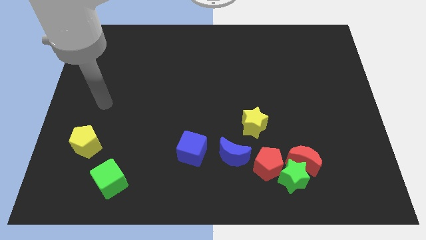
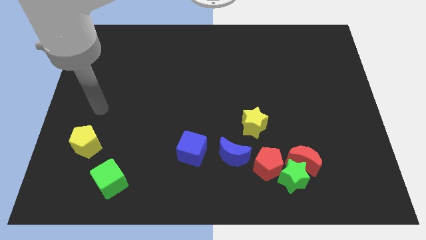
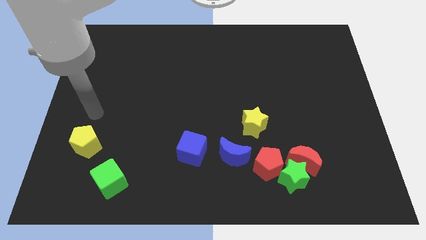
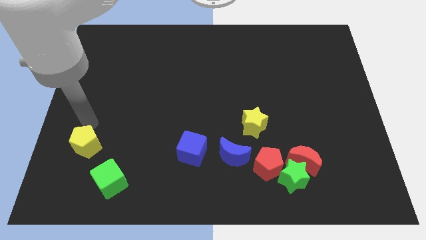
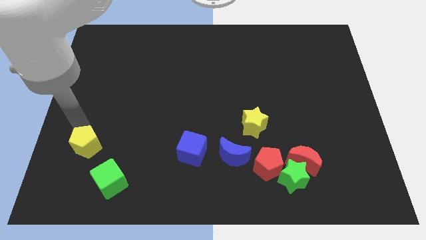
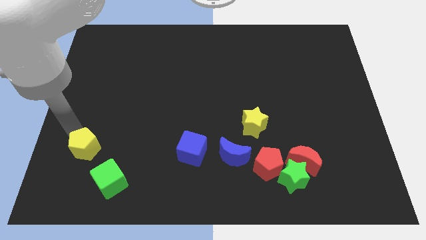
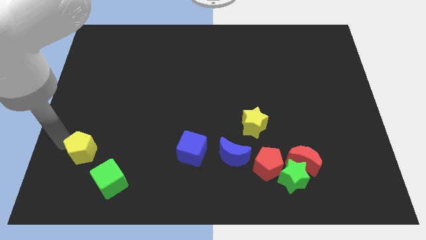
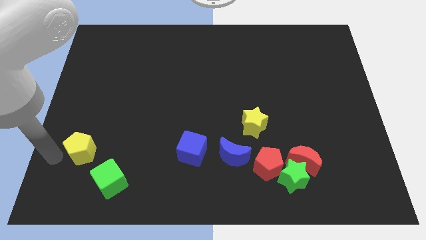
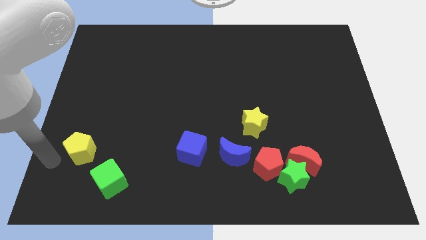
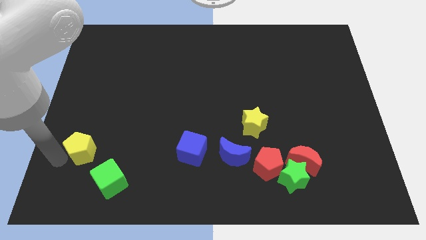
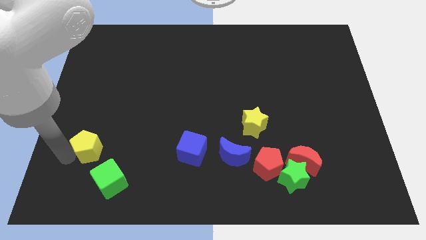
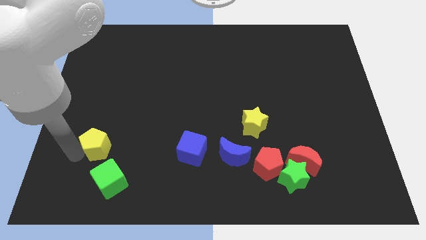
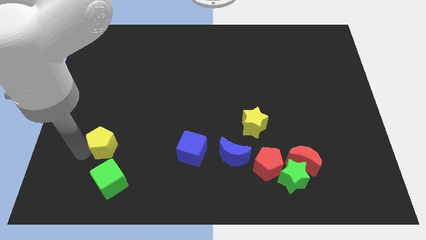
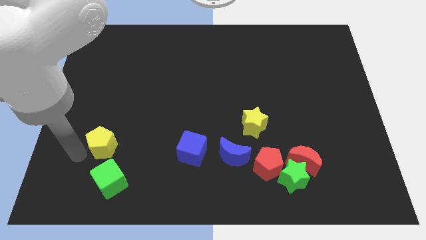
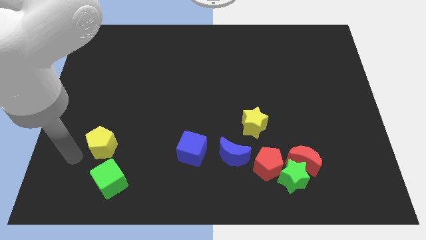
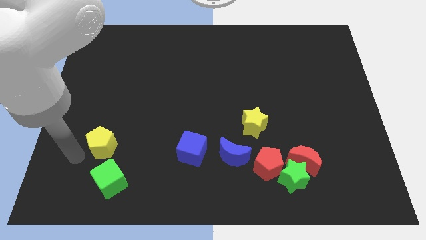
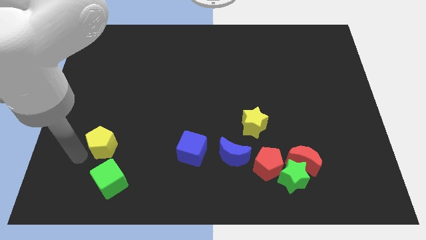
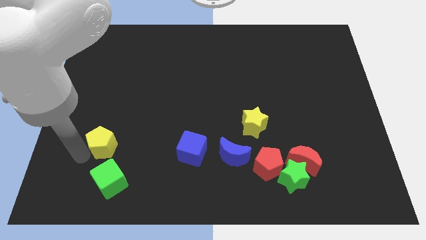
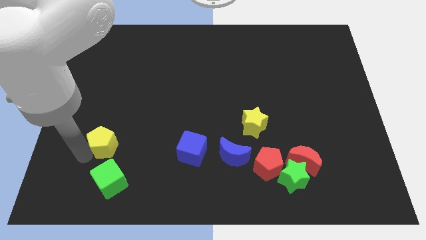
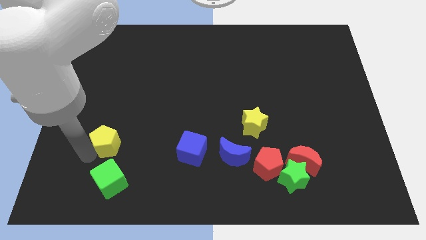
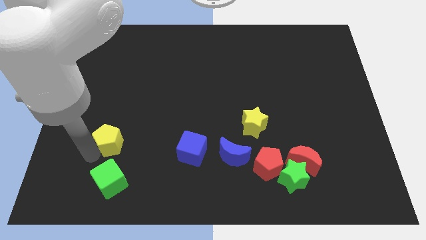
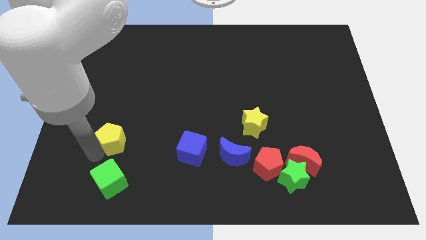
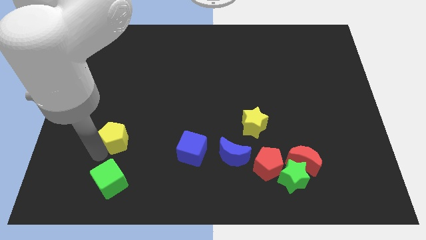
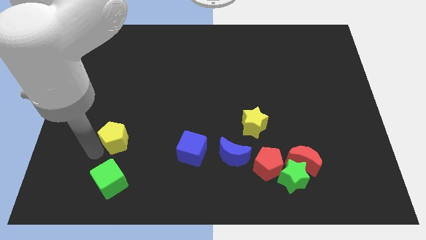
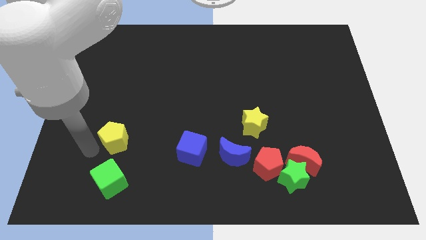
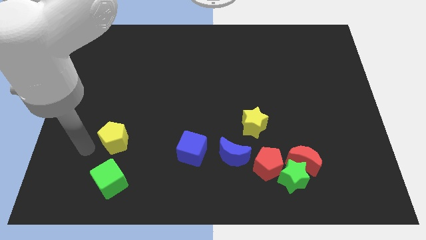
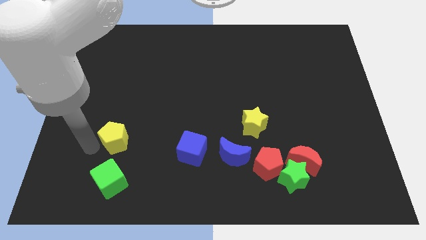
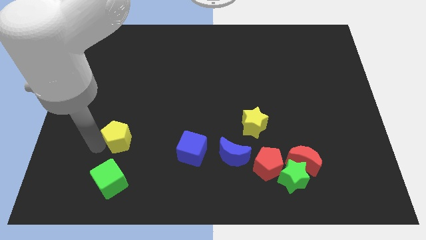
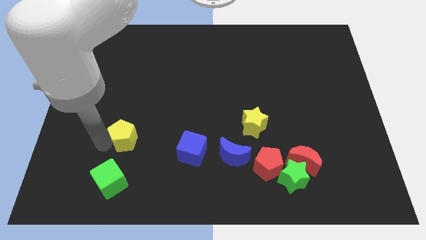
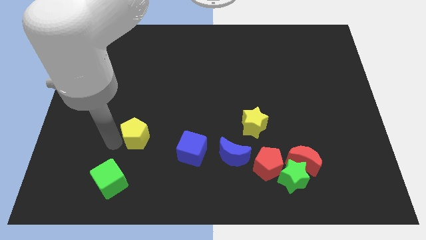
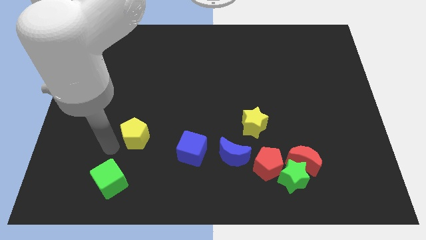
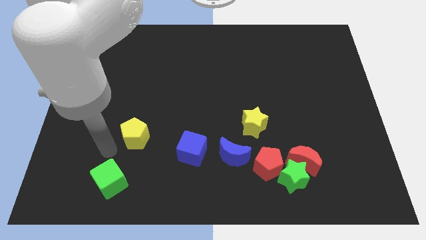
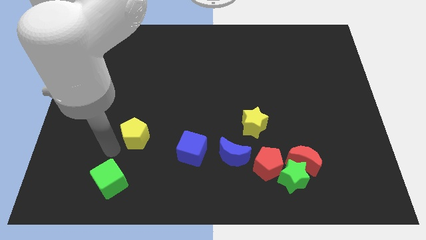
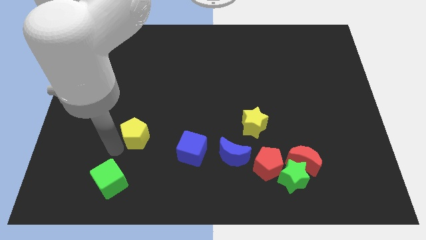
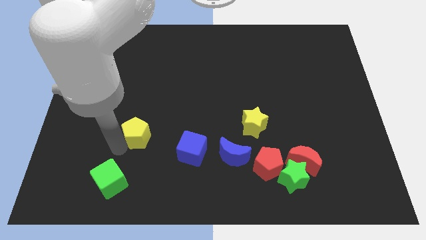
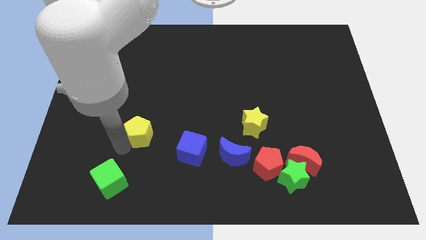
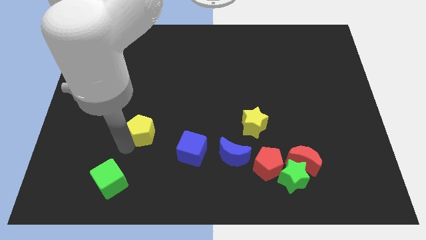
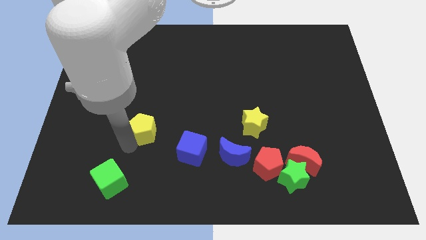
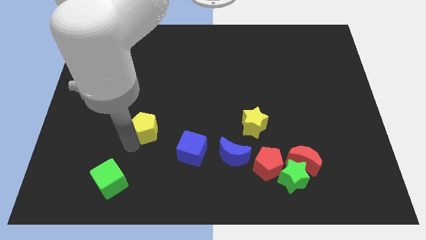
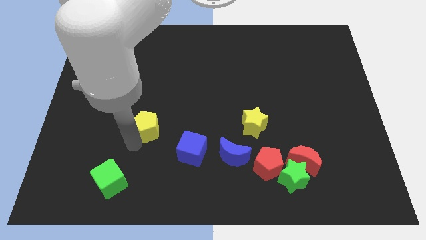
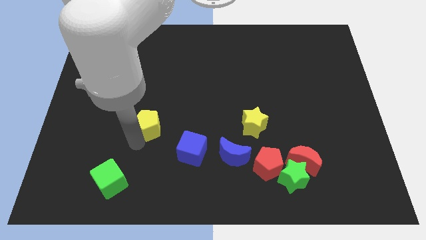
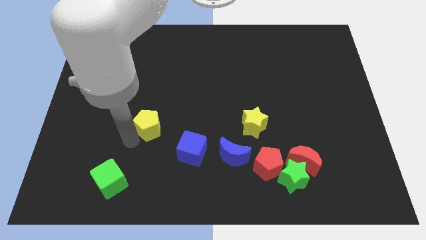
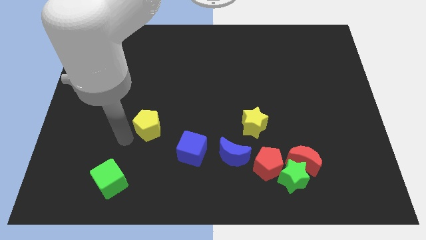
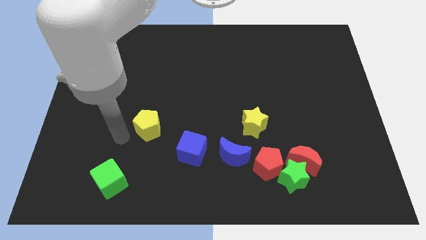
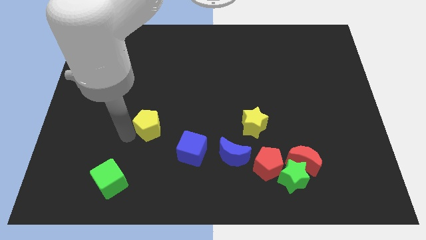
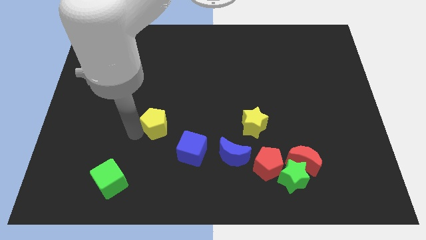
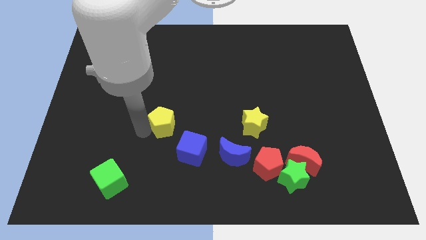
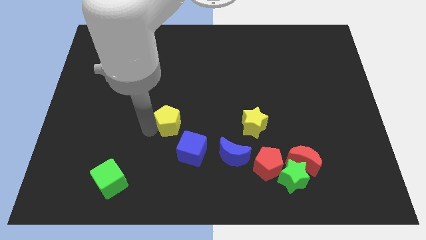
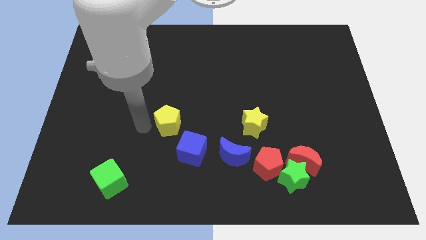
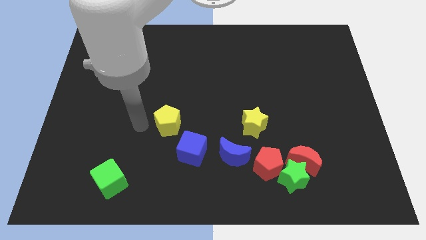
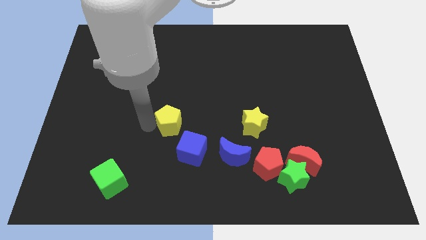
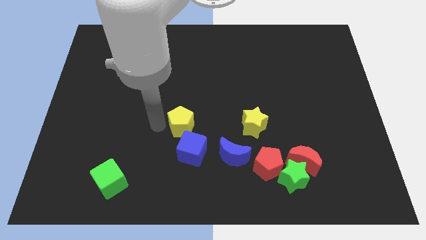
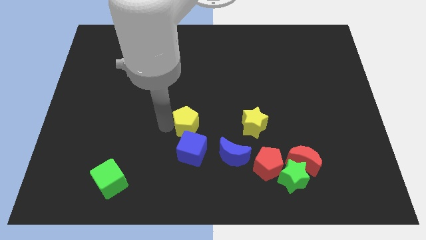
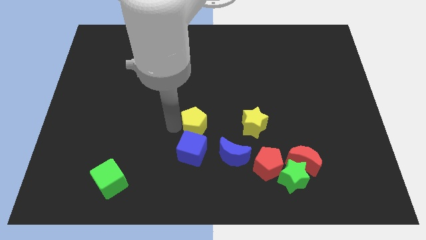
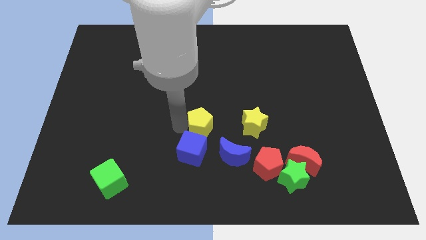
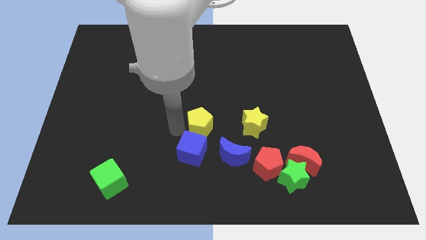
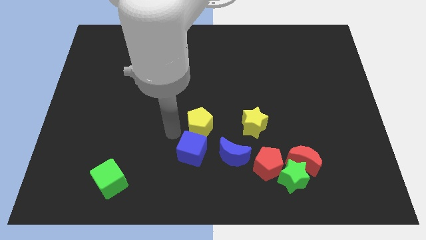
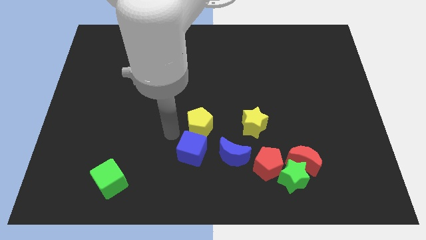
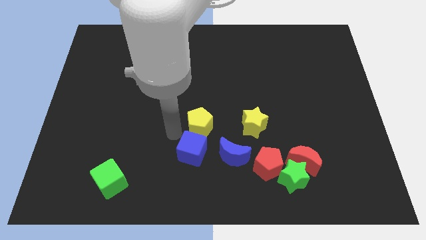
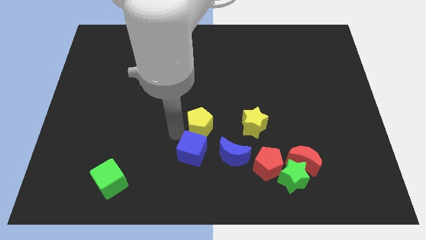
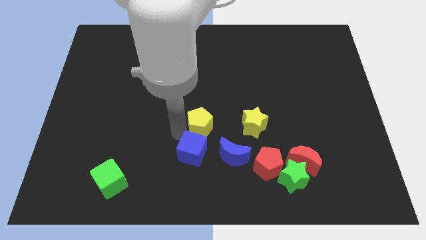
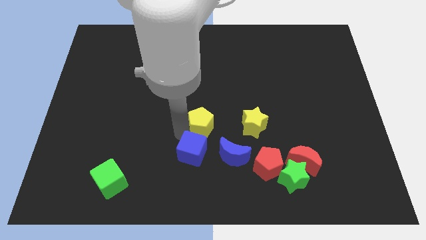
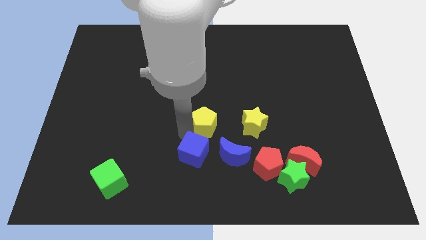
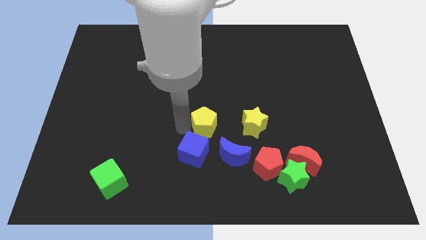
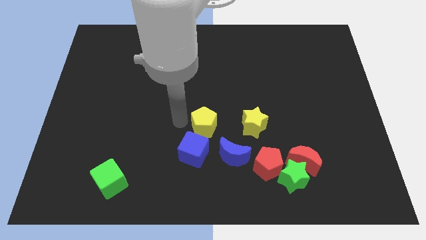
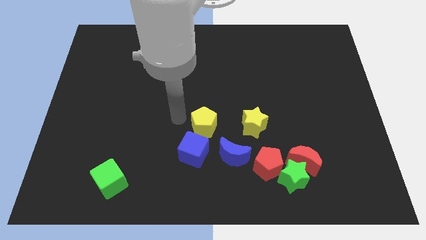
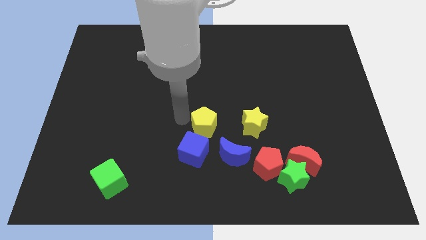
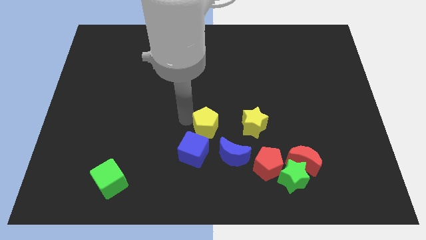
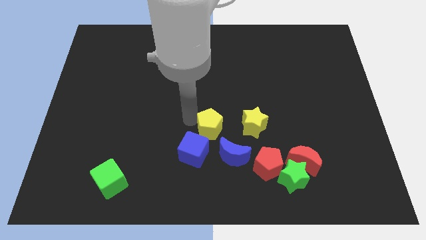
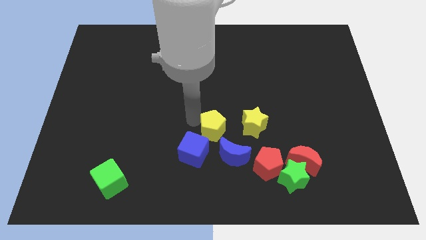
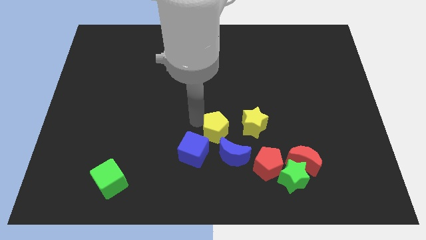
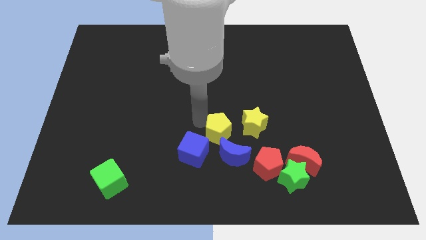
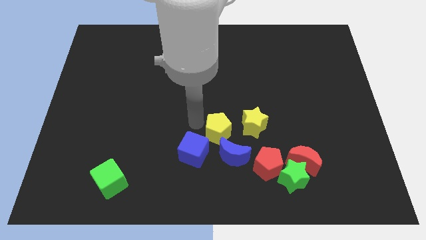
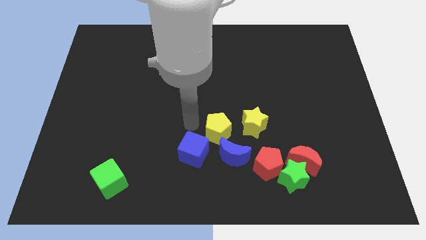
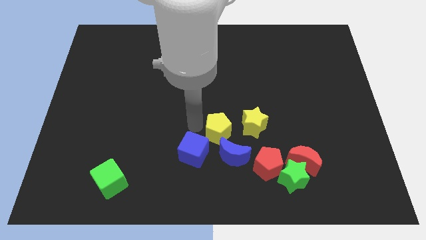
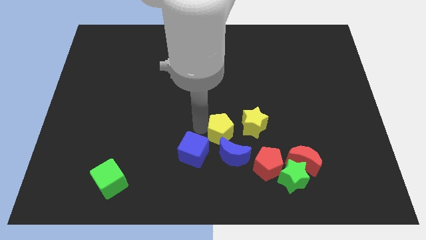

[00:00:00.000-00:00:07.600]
put the yellow pentagon just right of the blue cube
